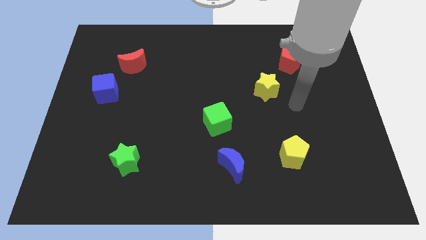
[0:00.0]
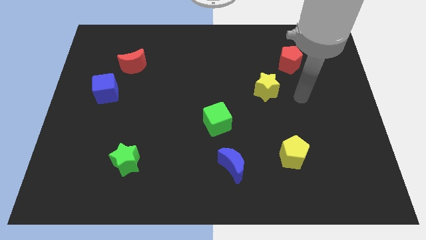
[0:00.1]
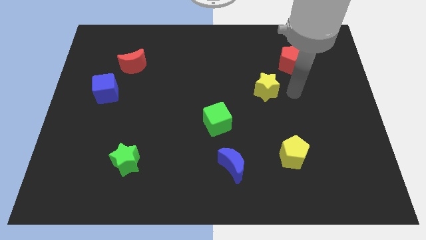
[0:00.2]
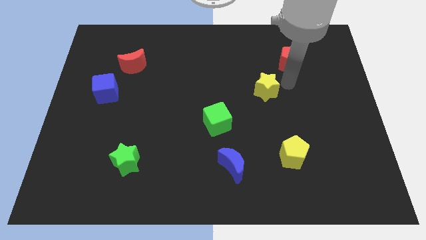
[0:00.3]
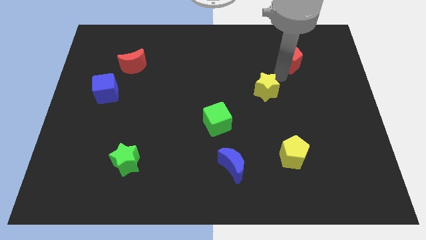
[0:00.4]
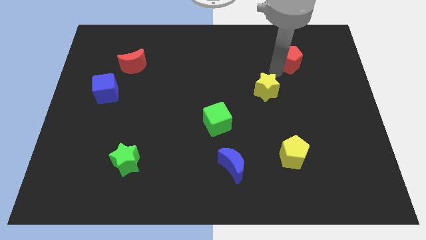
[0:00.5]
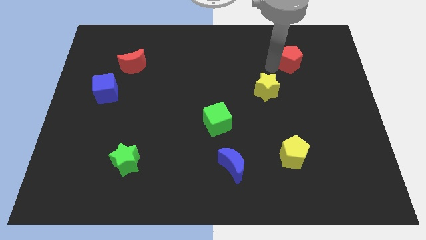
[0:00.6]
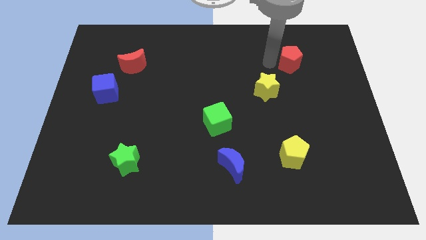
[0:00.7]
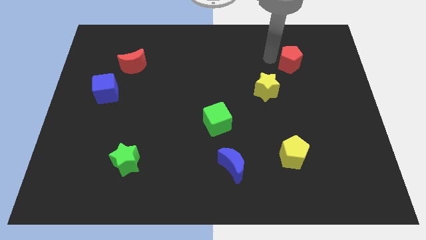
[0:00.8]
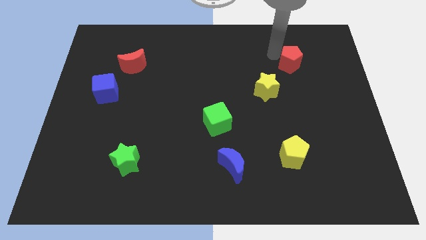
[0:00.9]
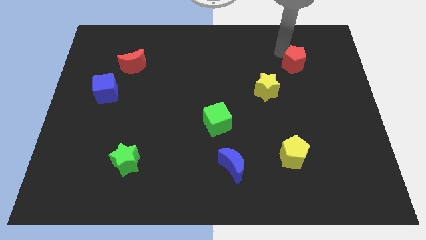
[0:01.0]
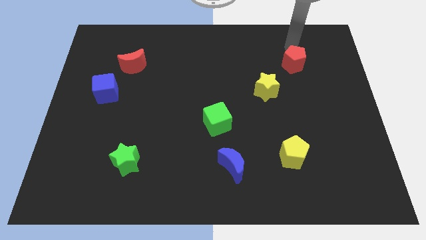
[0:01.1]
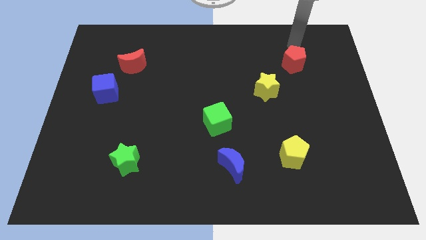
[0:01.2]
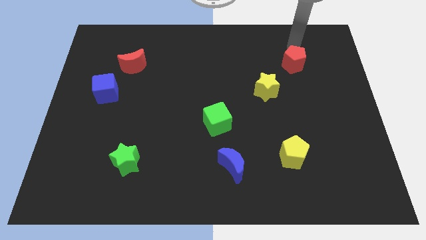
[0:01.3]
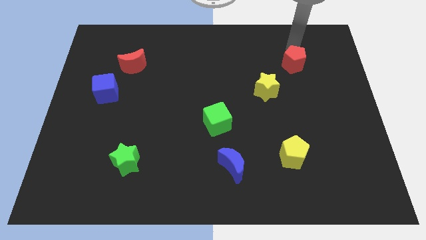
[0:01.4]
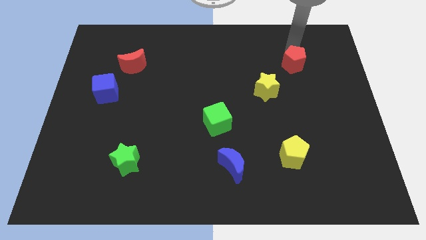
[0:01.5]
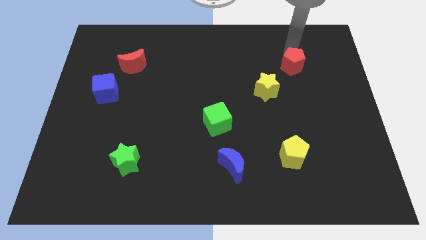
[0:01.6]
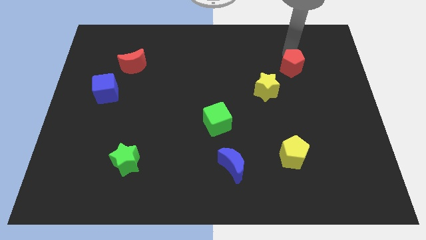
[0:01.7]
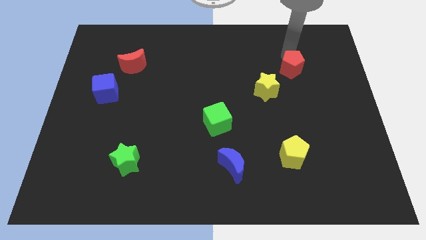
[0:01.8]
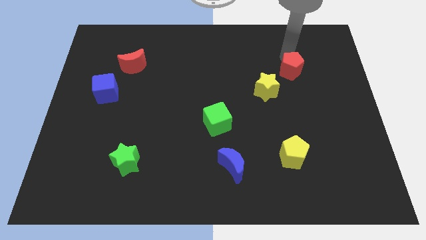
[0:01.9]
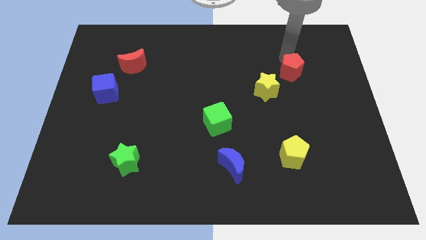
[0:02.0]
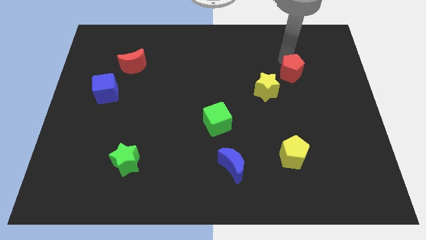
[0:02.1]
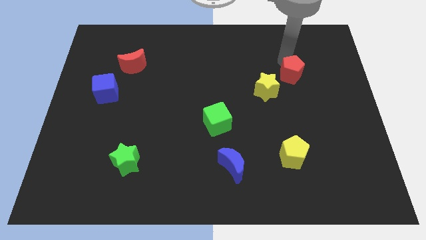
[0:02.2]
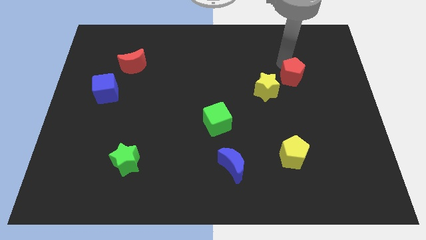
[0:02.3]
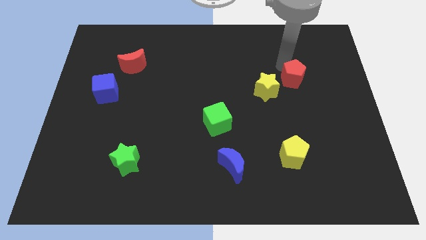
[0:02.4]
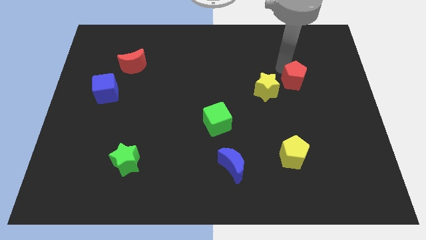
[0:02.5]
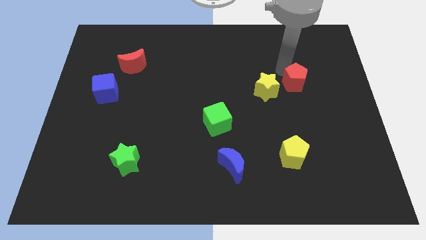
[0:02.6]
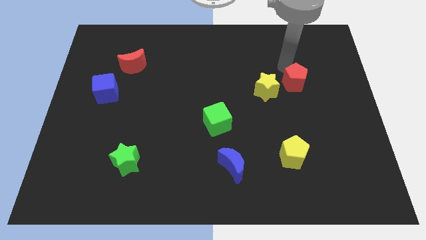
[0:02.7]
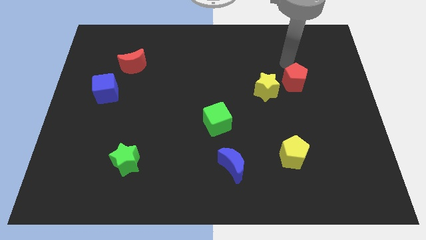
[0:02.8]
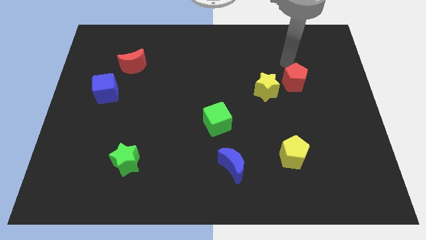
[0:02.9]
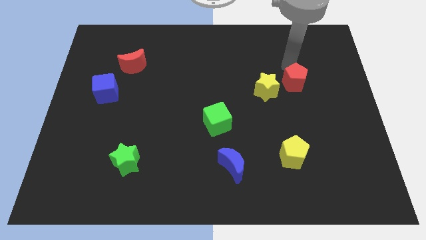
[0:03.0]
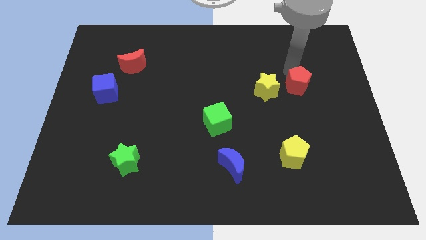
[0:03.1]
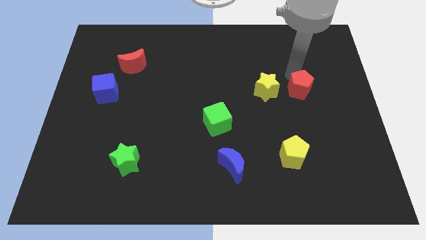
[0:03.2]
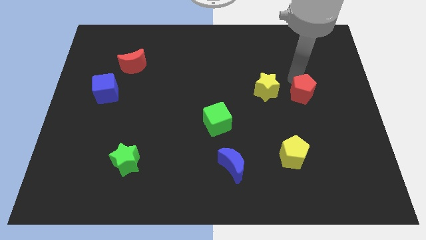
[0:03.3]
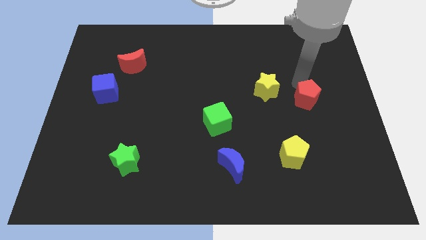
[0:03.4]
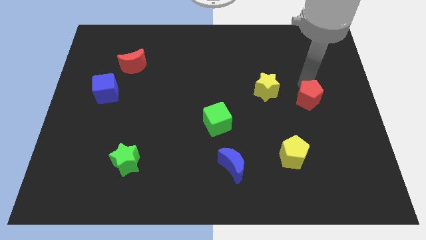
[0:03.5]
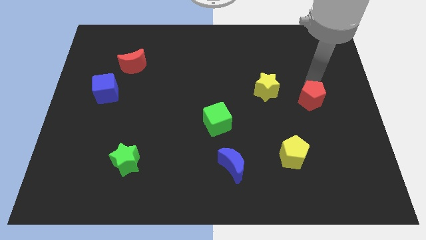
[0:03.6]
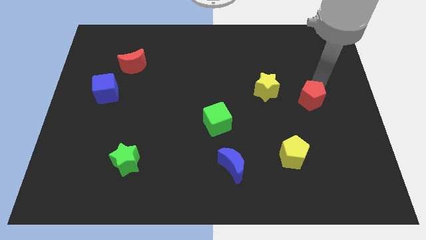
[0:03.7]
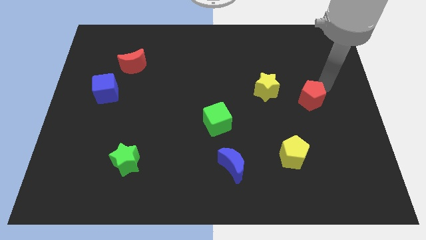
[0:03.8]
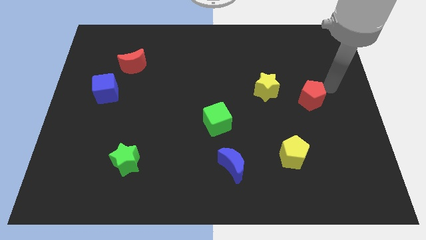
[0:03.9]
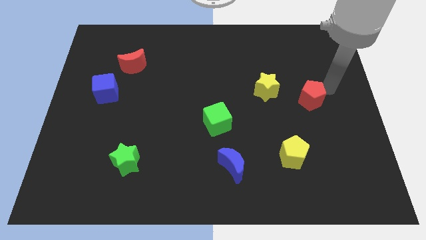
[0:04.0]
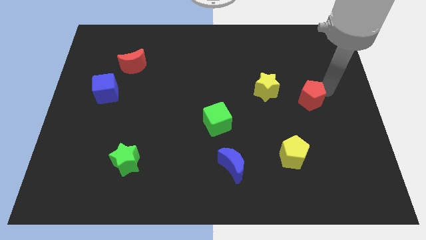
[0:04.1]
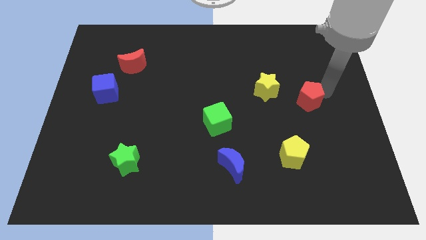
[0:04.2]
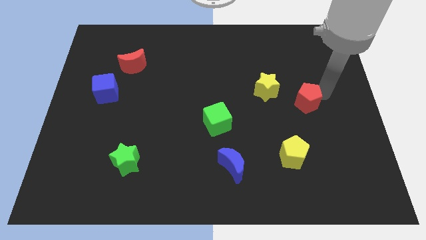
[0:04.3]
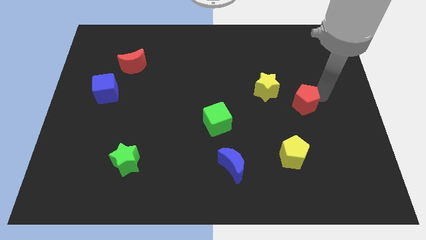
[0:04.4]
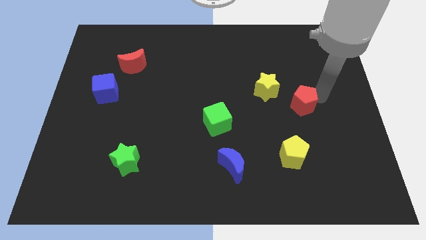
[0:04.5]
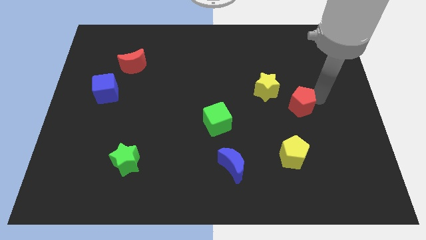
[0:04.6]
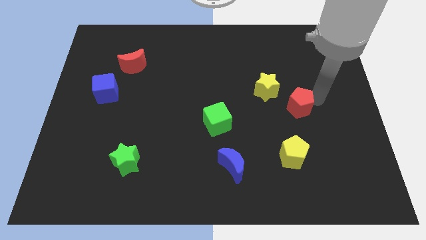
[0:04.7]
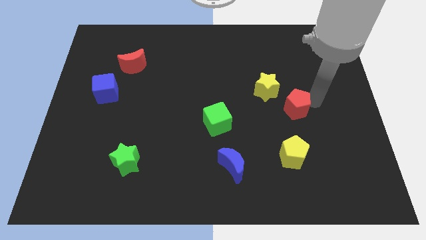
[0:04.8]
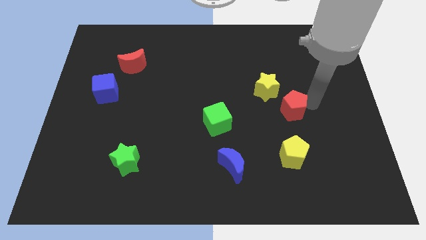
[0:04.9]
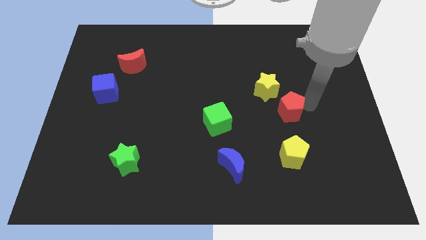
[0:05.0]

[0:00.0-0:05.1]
put the red pentagon to the bottom of the yellow star

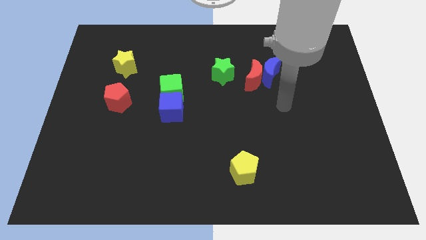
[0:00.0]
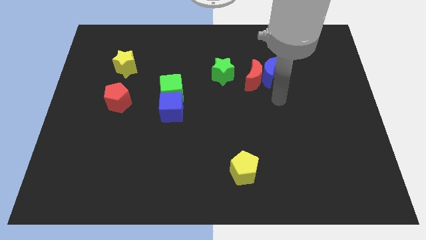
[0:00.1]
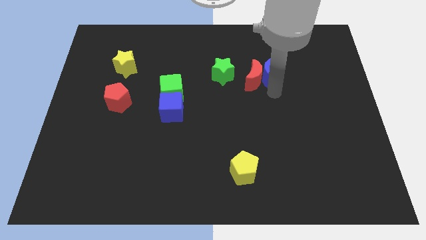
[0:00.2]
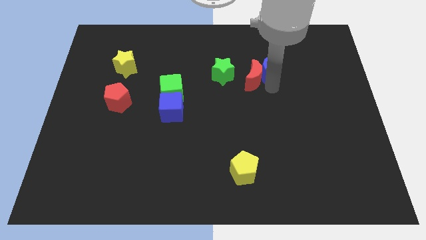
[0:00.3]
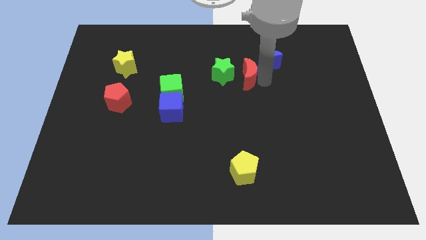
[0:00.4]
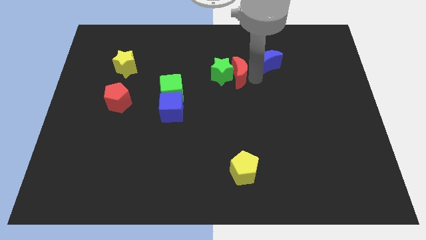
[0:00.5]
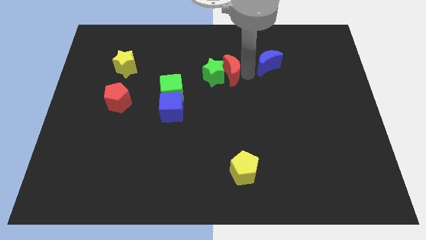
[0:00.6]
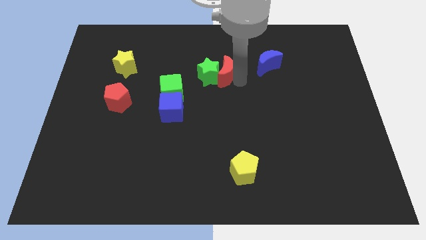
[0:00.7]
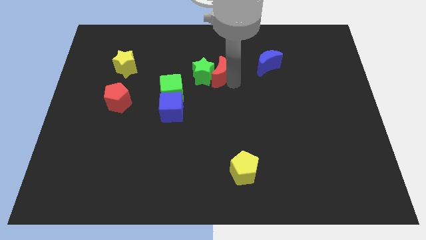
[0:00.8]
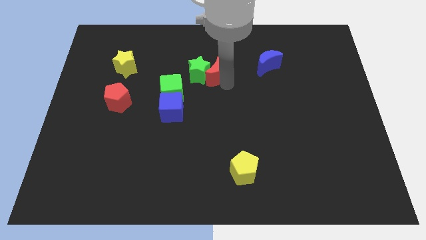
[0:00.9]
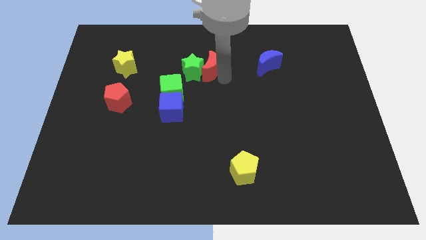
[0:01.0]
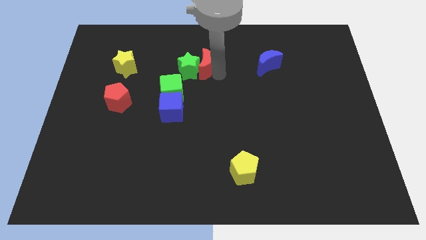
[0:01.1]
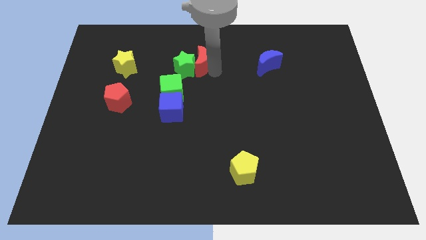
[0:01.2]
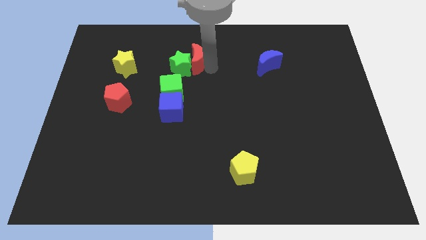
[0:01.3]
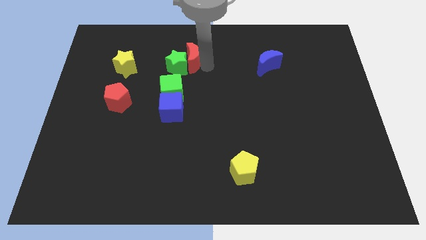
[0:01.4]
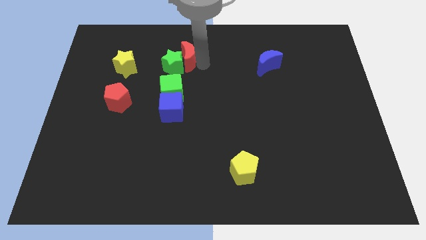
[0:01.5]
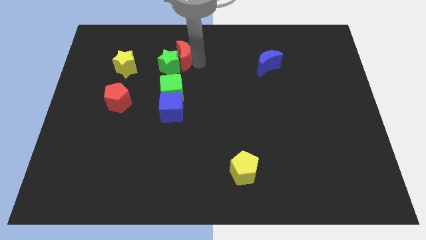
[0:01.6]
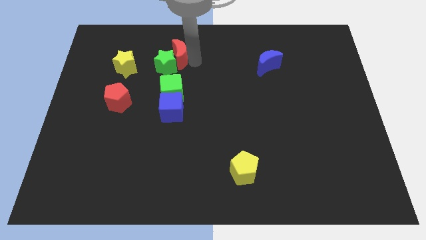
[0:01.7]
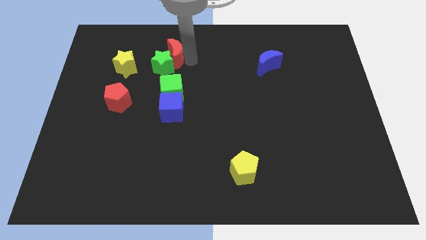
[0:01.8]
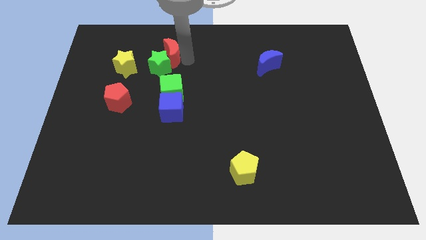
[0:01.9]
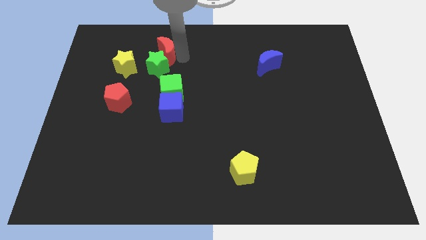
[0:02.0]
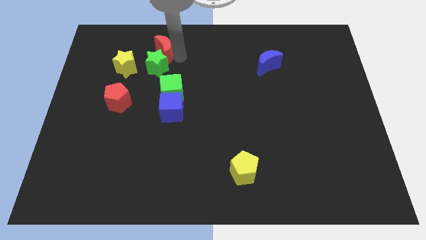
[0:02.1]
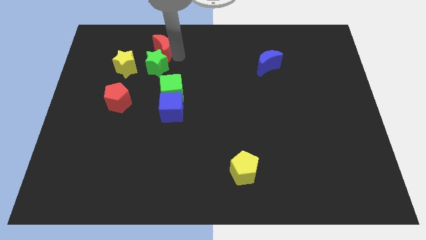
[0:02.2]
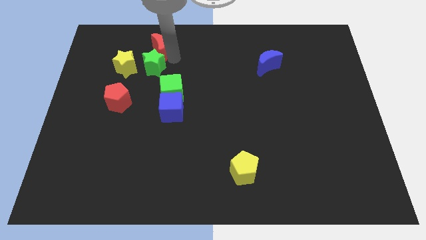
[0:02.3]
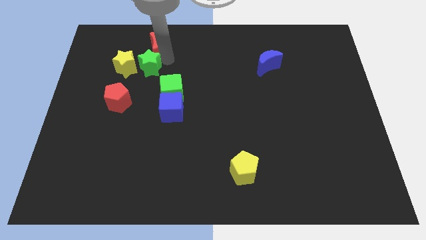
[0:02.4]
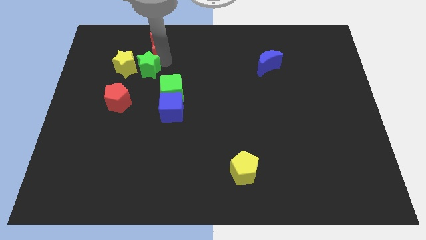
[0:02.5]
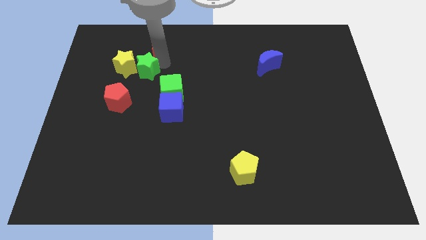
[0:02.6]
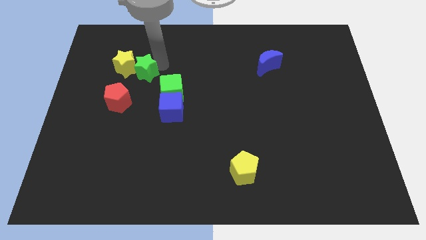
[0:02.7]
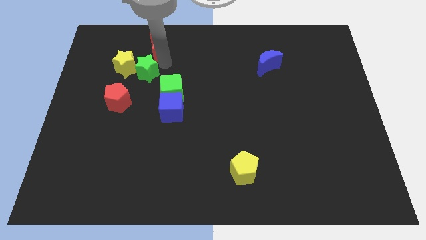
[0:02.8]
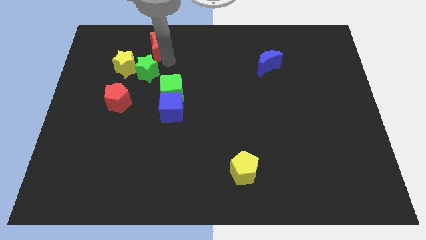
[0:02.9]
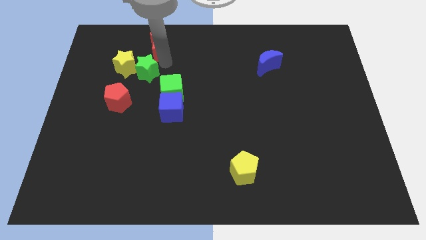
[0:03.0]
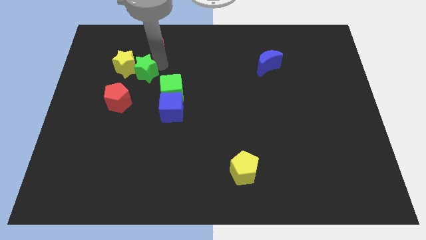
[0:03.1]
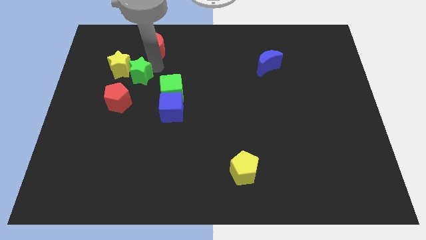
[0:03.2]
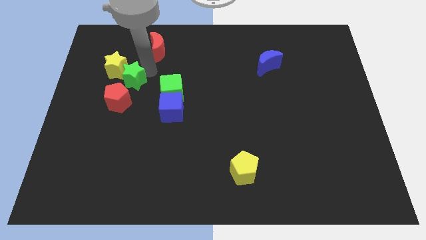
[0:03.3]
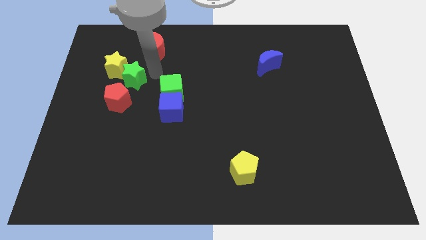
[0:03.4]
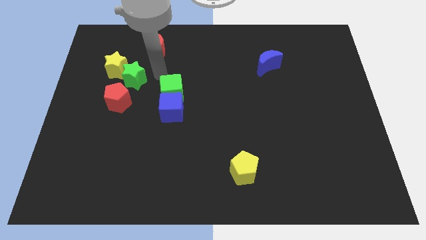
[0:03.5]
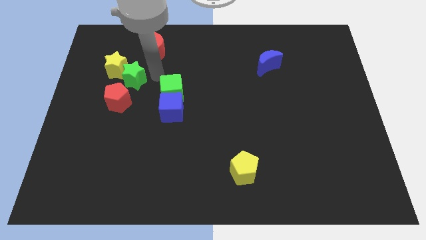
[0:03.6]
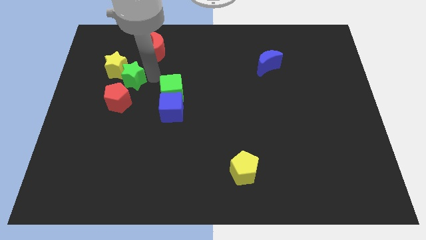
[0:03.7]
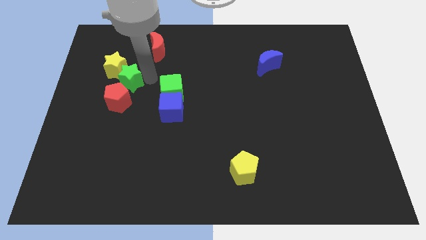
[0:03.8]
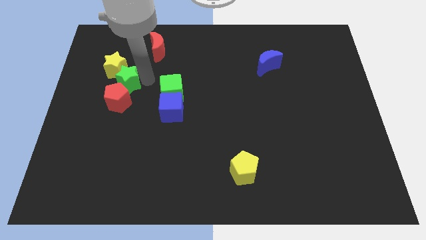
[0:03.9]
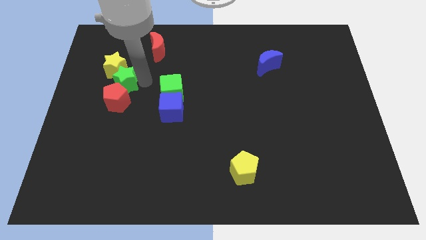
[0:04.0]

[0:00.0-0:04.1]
slide the green star to the top left side of the red pentagon
